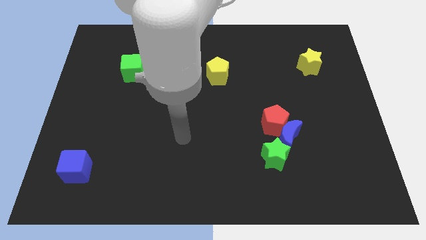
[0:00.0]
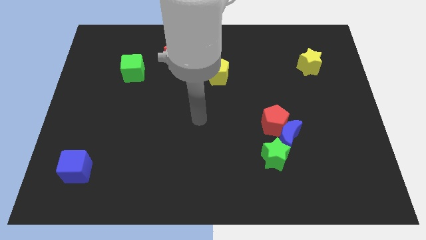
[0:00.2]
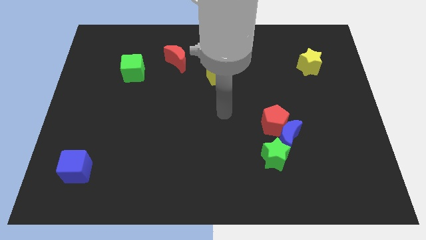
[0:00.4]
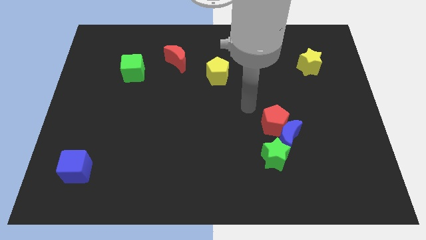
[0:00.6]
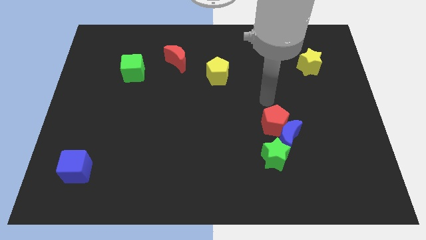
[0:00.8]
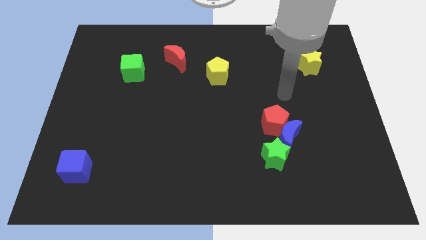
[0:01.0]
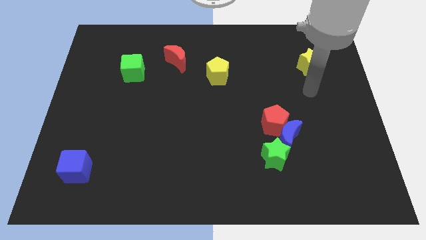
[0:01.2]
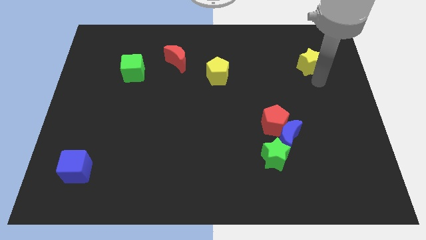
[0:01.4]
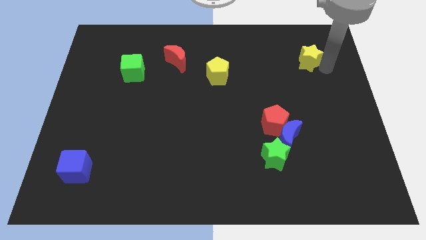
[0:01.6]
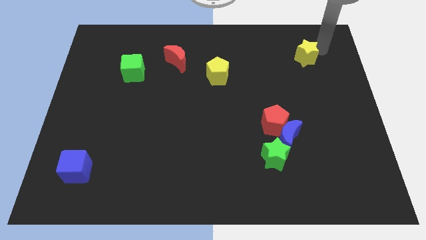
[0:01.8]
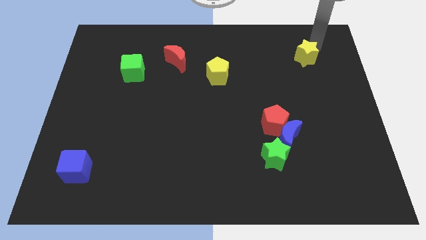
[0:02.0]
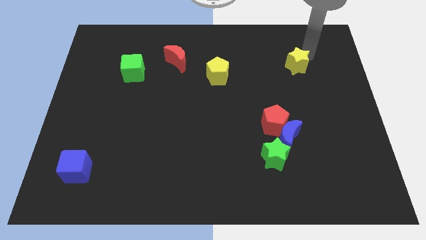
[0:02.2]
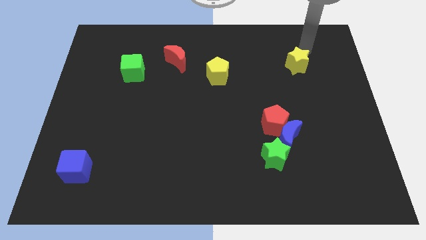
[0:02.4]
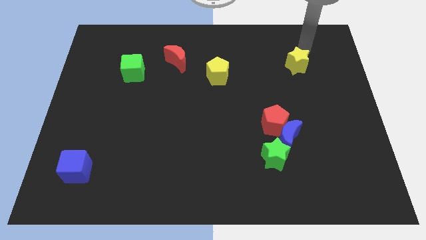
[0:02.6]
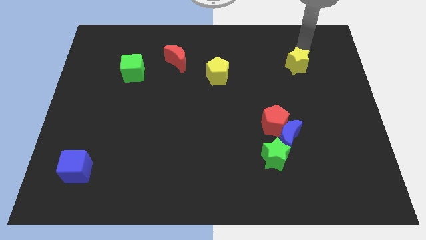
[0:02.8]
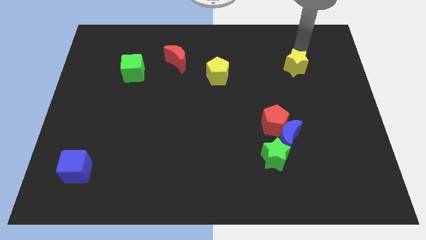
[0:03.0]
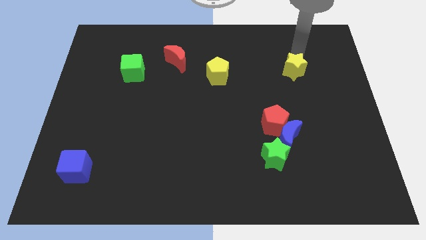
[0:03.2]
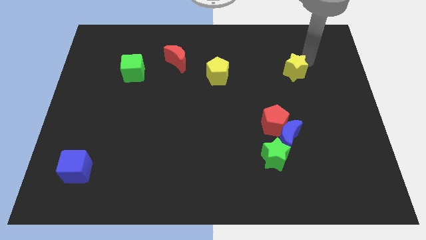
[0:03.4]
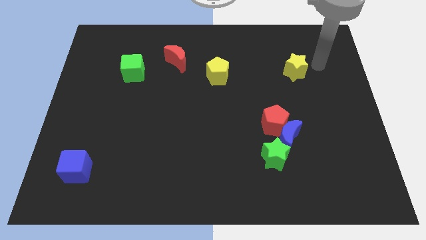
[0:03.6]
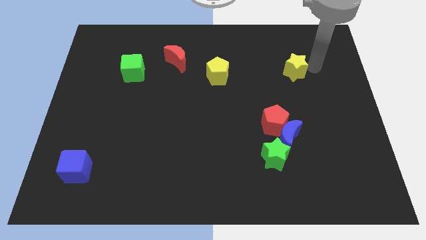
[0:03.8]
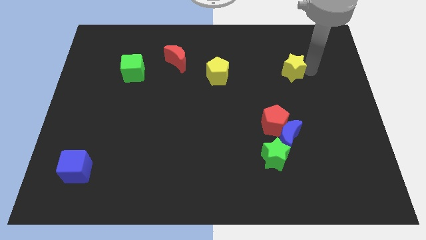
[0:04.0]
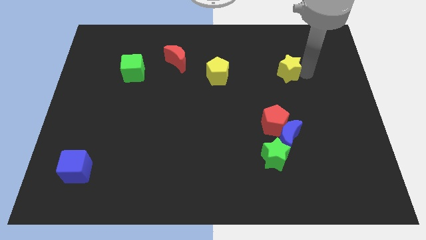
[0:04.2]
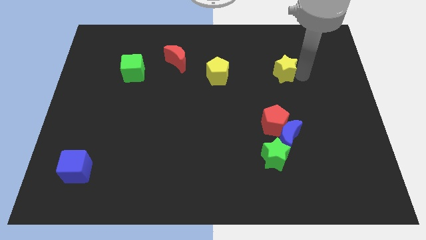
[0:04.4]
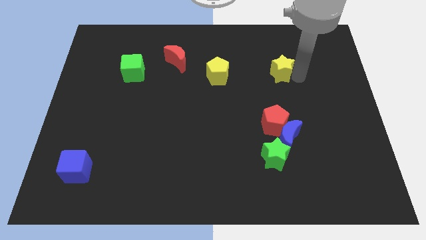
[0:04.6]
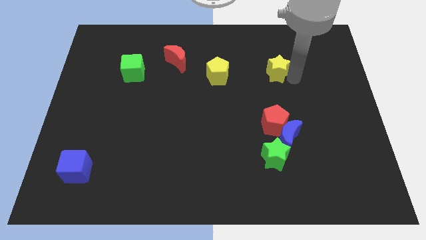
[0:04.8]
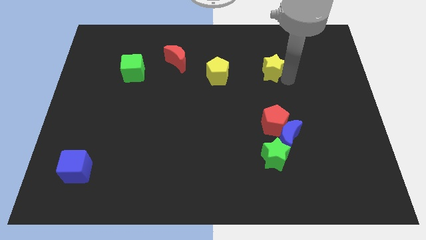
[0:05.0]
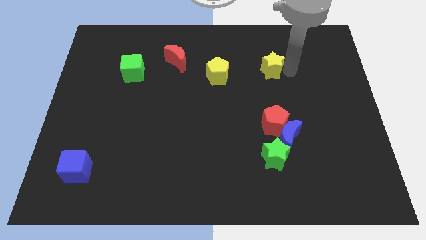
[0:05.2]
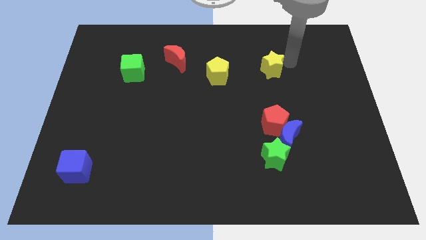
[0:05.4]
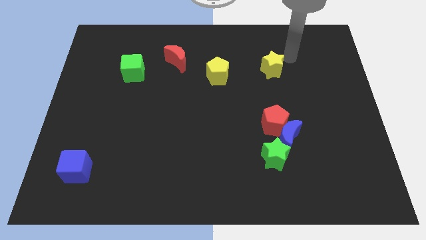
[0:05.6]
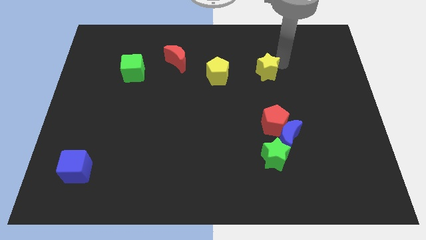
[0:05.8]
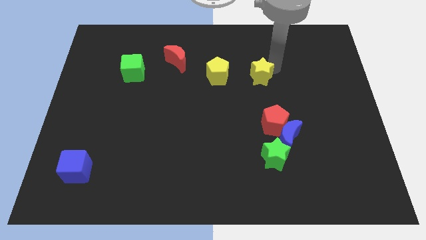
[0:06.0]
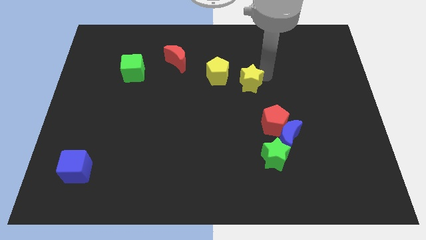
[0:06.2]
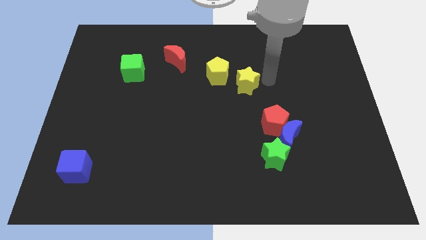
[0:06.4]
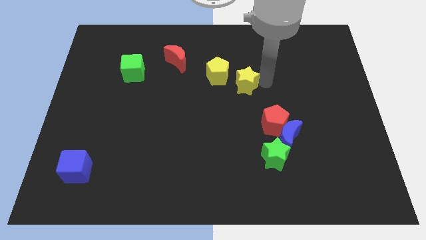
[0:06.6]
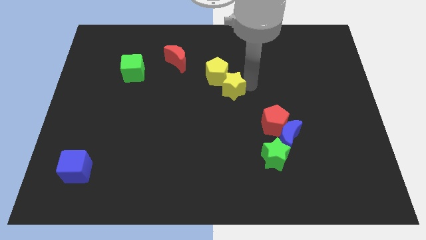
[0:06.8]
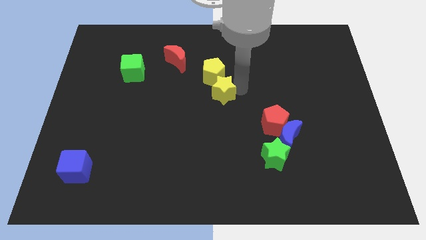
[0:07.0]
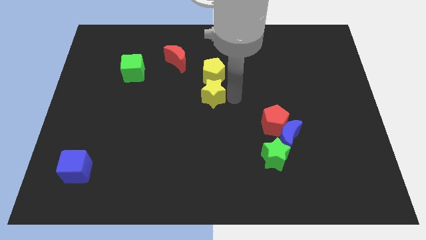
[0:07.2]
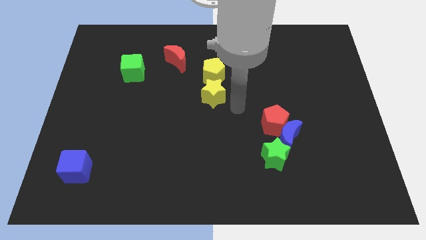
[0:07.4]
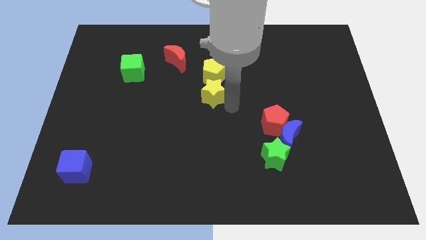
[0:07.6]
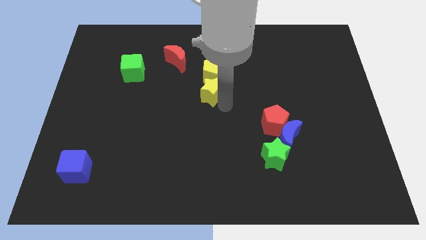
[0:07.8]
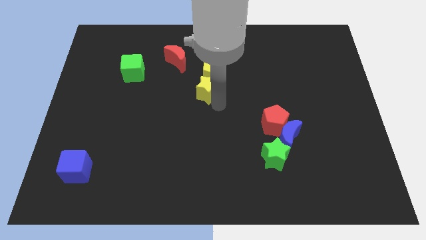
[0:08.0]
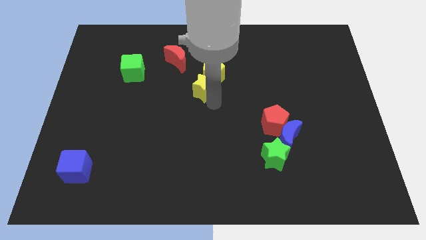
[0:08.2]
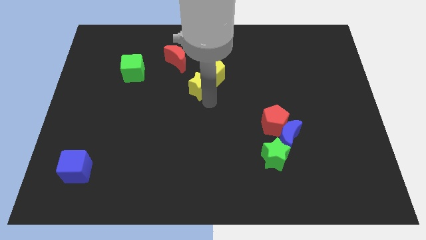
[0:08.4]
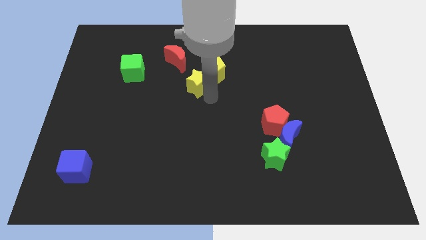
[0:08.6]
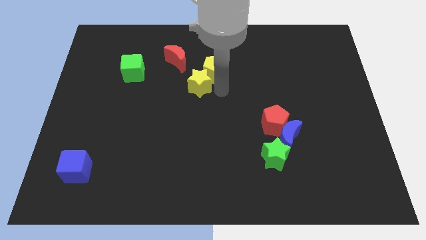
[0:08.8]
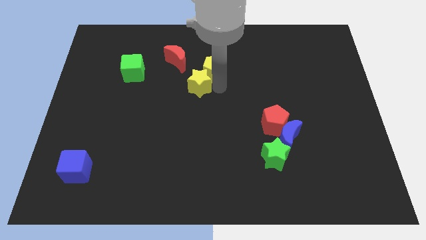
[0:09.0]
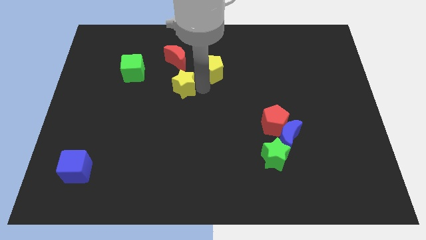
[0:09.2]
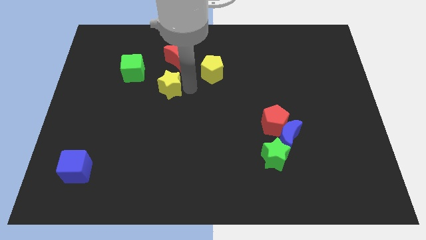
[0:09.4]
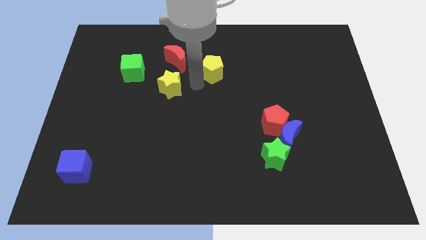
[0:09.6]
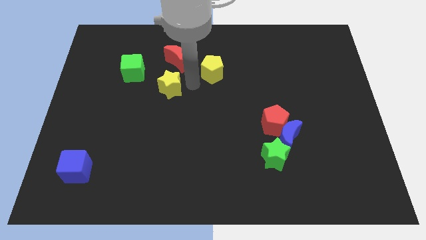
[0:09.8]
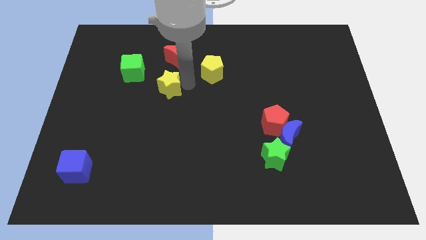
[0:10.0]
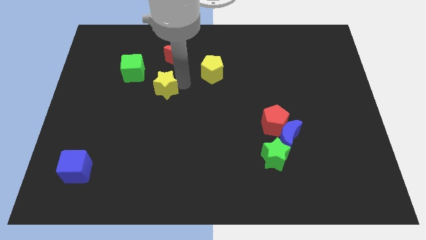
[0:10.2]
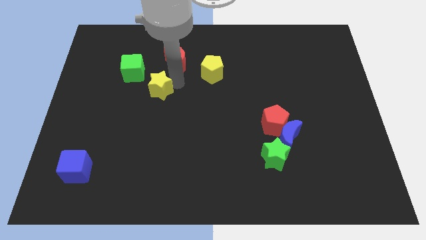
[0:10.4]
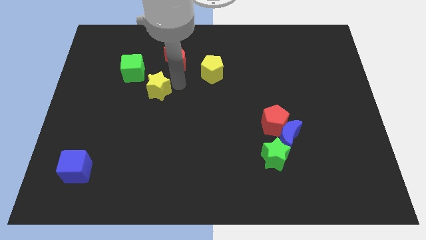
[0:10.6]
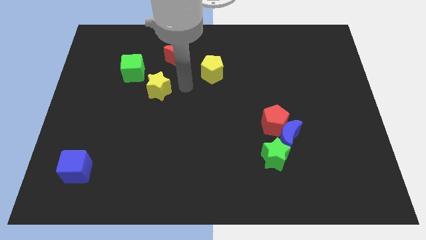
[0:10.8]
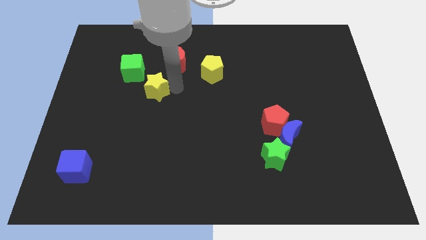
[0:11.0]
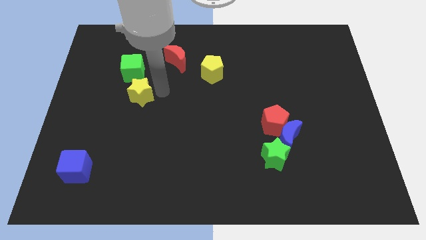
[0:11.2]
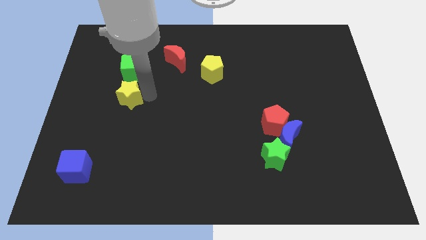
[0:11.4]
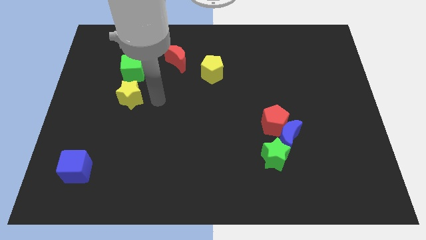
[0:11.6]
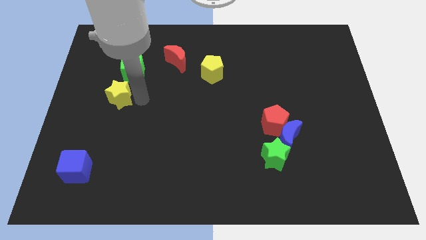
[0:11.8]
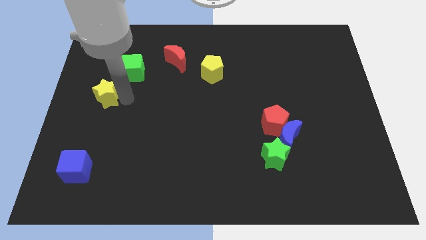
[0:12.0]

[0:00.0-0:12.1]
push the yellow star to the center left
